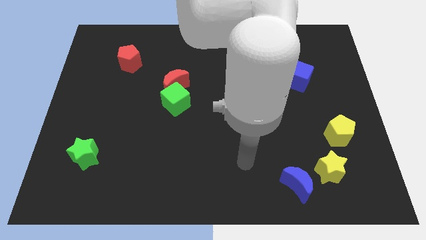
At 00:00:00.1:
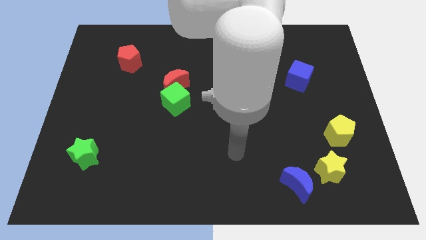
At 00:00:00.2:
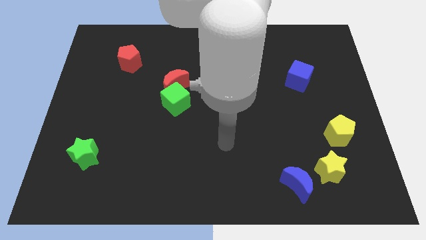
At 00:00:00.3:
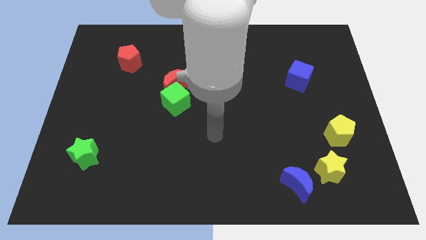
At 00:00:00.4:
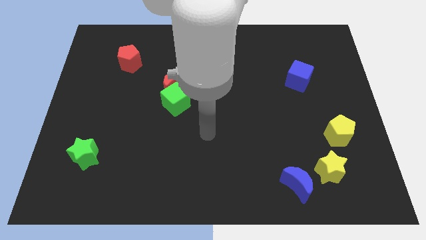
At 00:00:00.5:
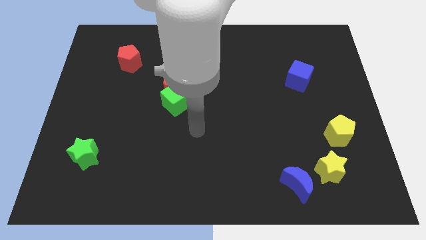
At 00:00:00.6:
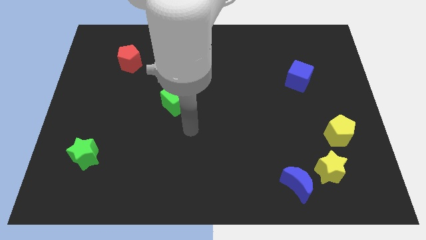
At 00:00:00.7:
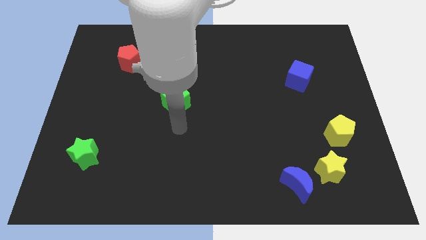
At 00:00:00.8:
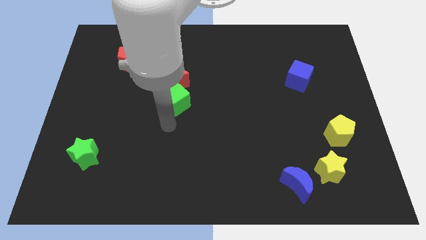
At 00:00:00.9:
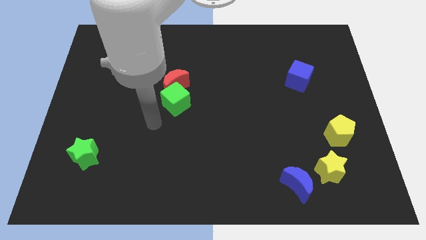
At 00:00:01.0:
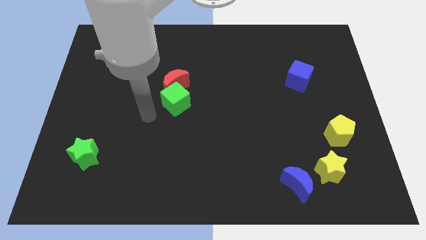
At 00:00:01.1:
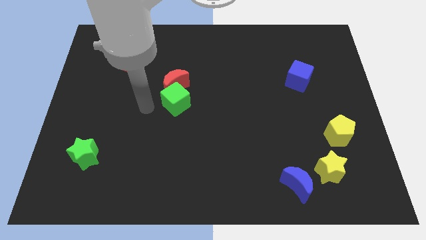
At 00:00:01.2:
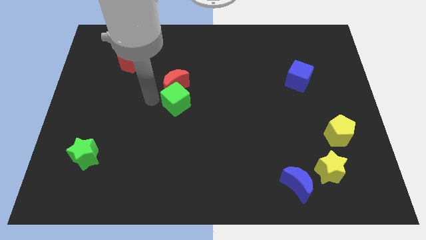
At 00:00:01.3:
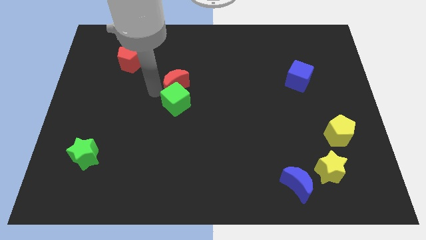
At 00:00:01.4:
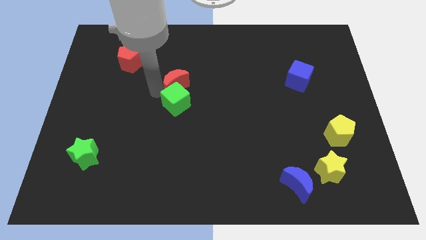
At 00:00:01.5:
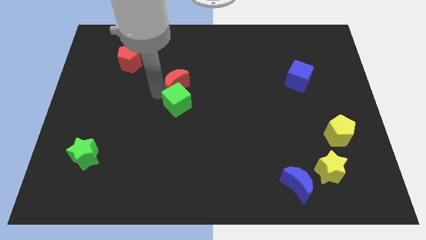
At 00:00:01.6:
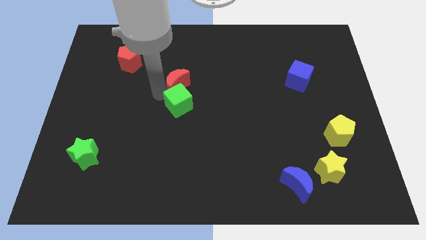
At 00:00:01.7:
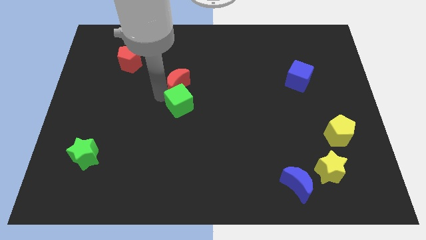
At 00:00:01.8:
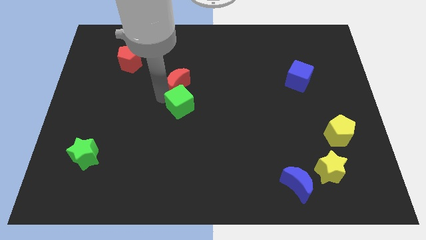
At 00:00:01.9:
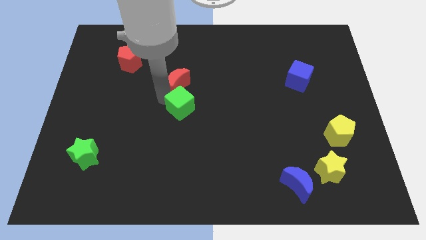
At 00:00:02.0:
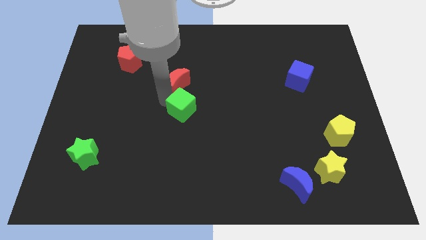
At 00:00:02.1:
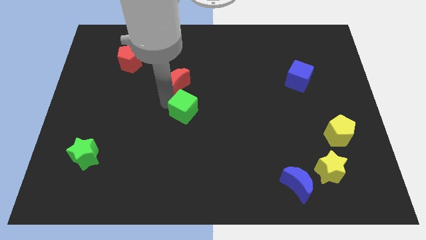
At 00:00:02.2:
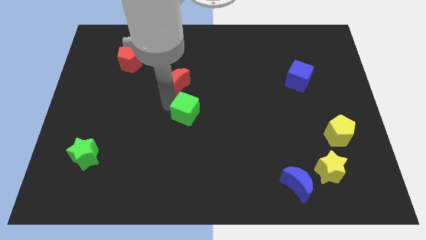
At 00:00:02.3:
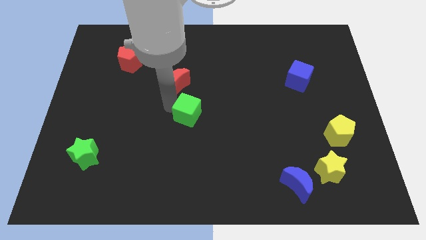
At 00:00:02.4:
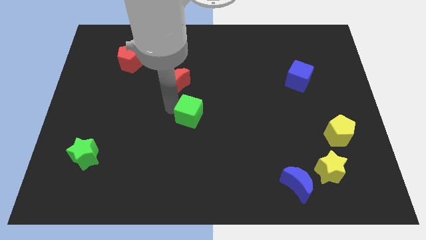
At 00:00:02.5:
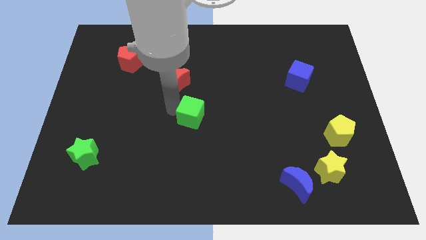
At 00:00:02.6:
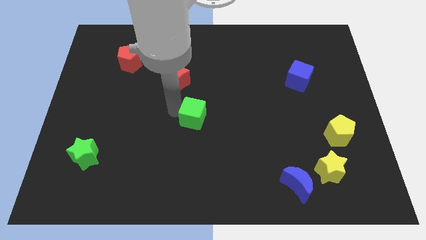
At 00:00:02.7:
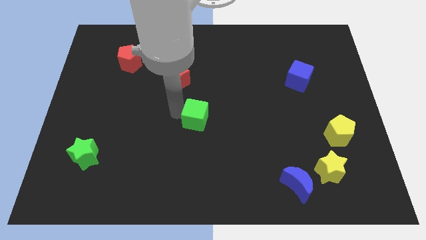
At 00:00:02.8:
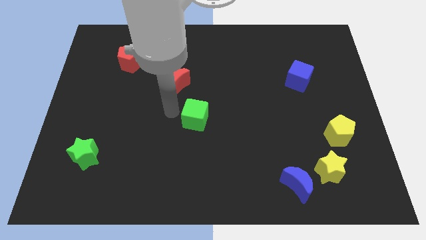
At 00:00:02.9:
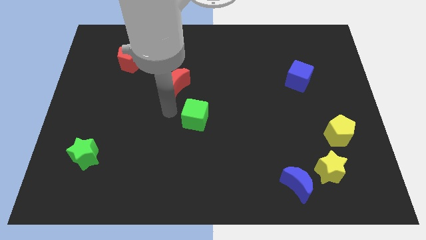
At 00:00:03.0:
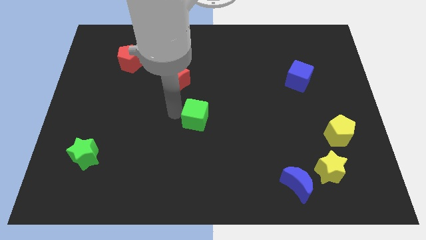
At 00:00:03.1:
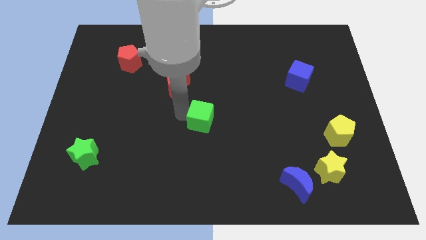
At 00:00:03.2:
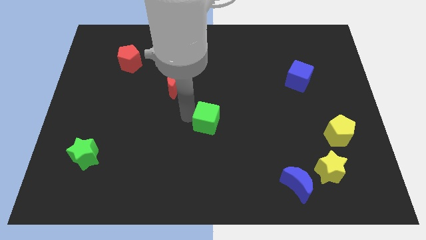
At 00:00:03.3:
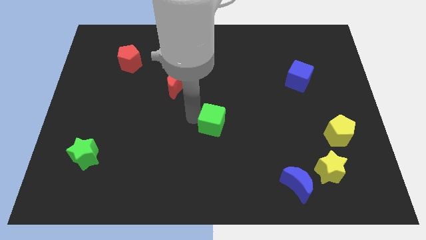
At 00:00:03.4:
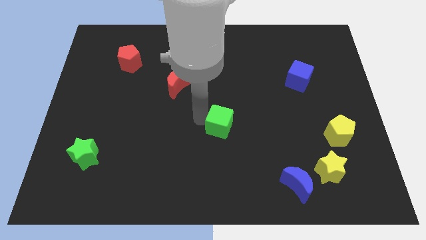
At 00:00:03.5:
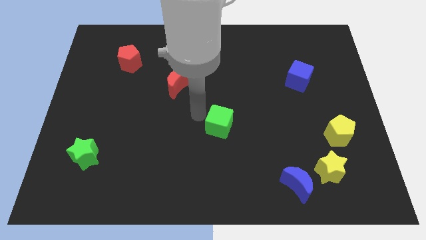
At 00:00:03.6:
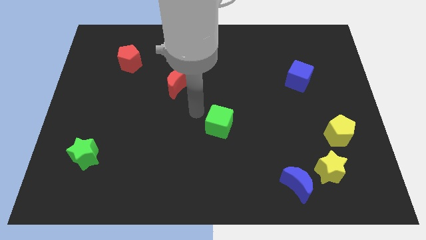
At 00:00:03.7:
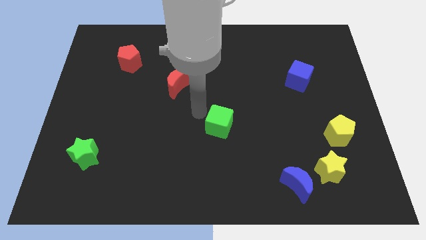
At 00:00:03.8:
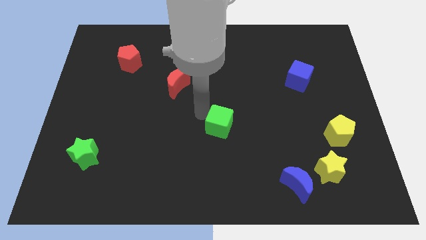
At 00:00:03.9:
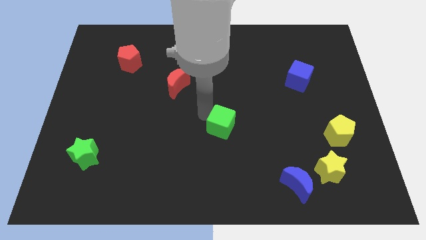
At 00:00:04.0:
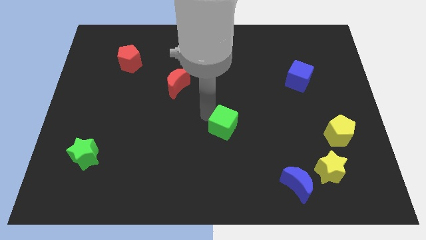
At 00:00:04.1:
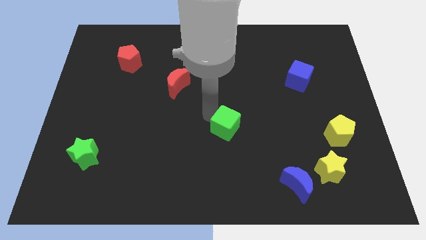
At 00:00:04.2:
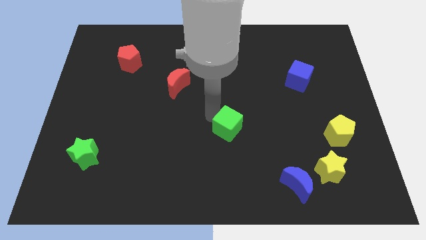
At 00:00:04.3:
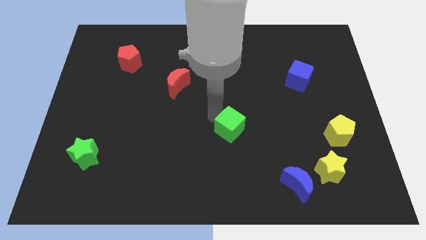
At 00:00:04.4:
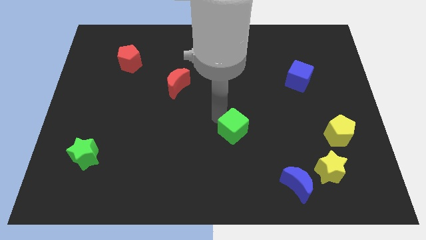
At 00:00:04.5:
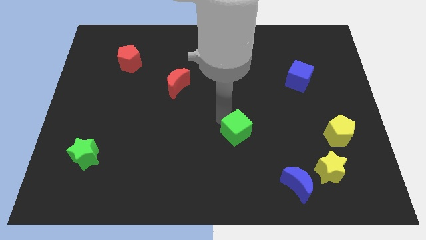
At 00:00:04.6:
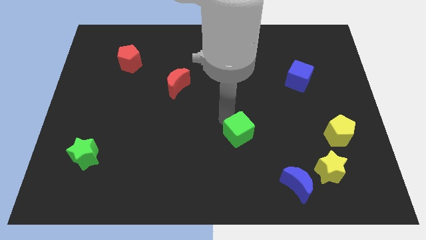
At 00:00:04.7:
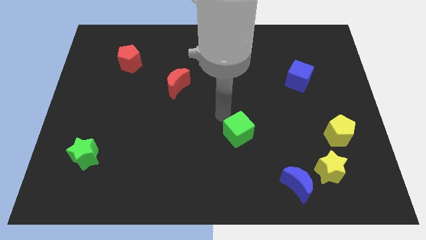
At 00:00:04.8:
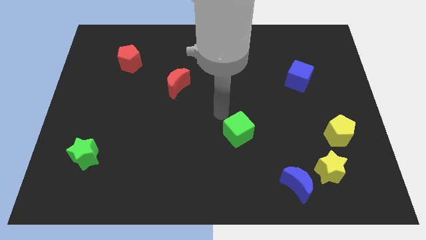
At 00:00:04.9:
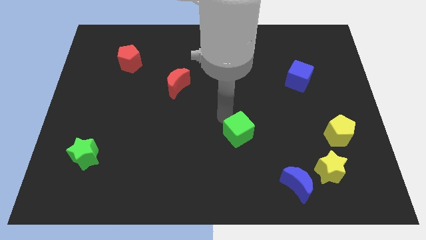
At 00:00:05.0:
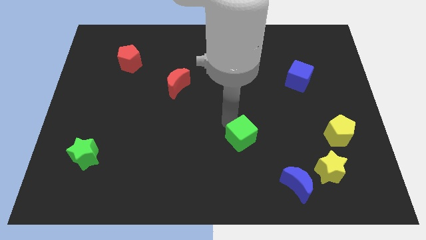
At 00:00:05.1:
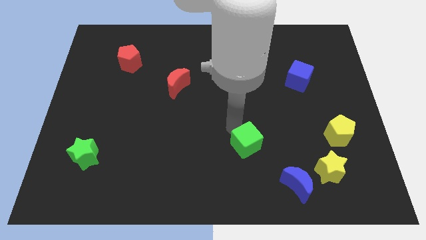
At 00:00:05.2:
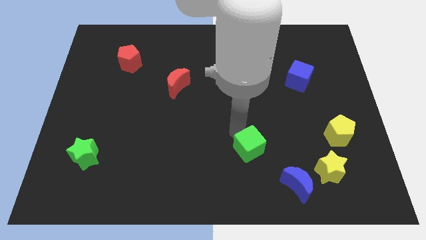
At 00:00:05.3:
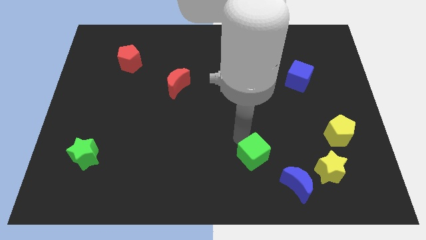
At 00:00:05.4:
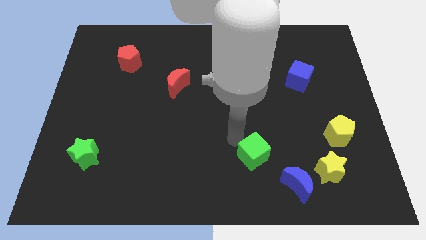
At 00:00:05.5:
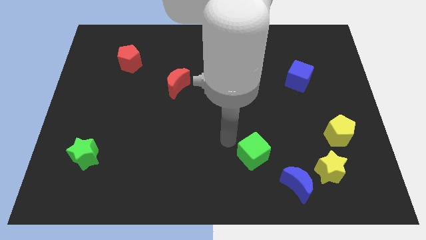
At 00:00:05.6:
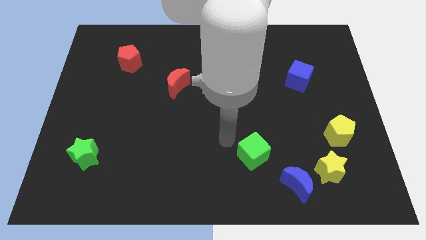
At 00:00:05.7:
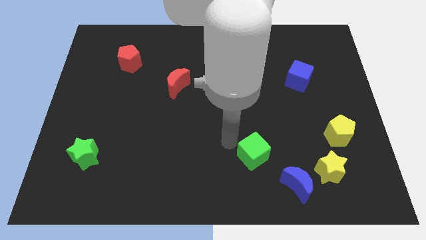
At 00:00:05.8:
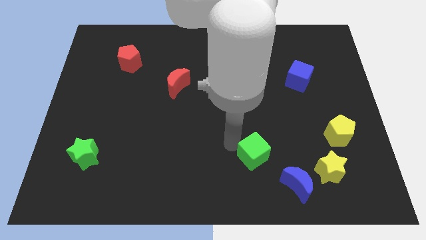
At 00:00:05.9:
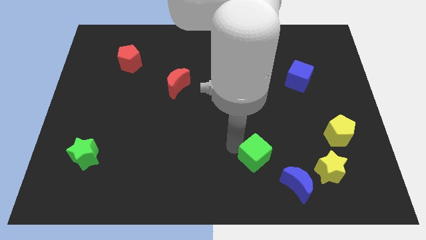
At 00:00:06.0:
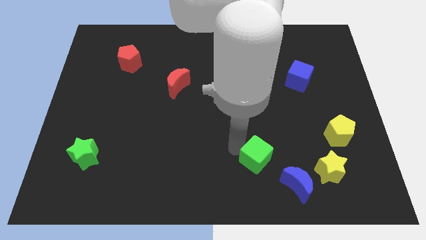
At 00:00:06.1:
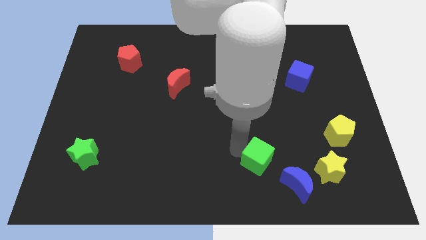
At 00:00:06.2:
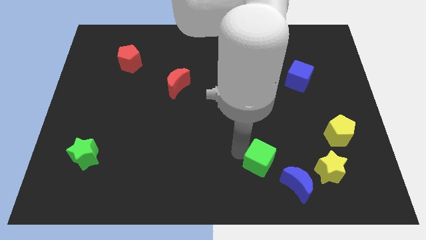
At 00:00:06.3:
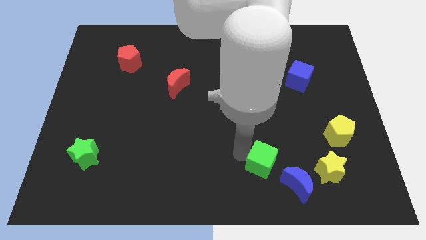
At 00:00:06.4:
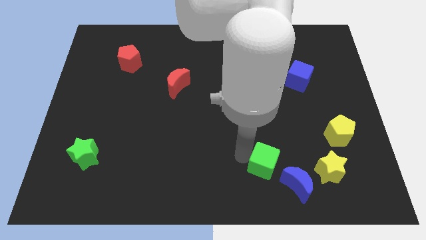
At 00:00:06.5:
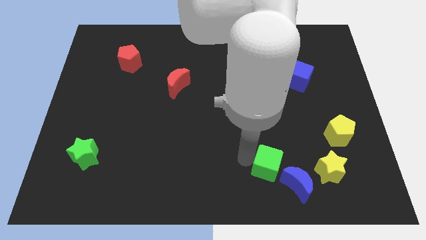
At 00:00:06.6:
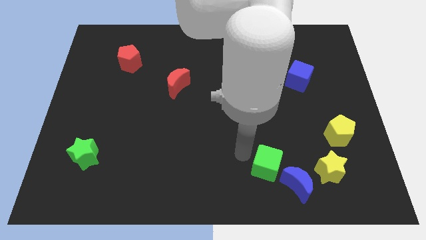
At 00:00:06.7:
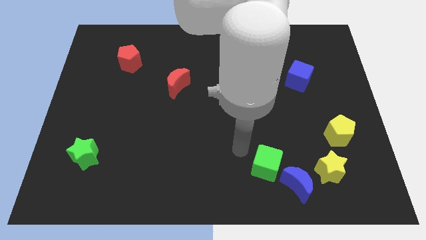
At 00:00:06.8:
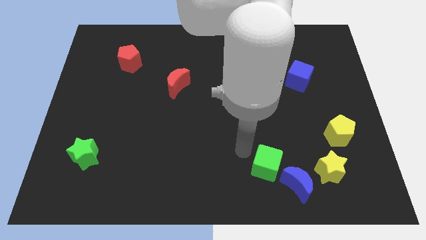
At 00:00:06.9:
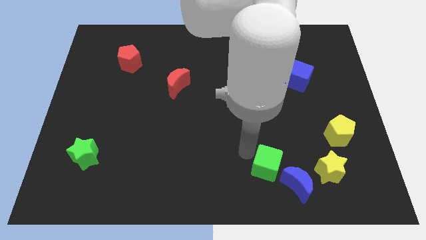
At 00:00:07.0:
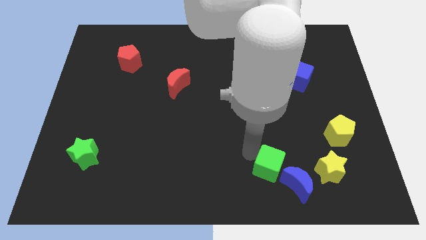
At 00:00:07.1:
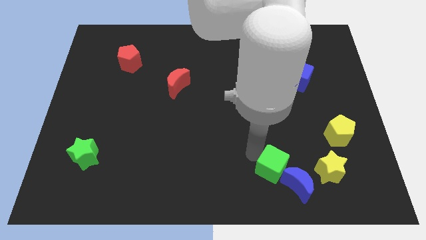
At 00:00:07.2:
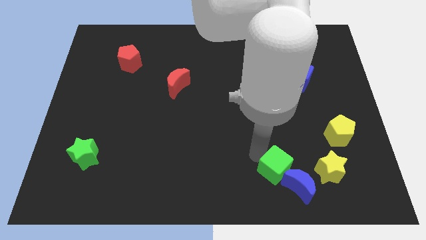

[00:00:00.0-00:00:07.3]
push the green cube close to the blue moon
